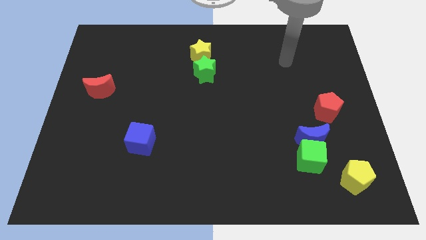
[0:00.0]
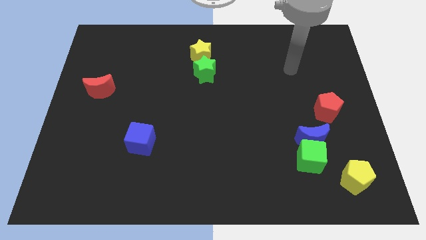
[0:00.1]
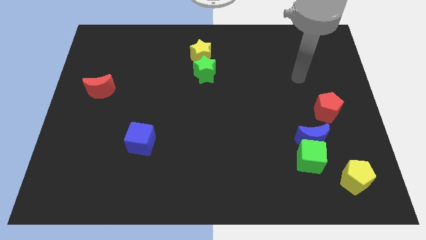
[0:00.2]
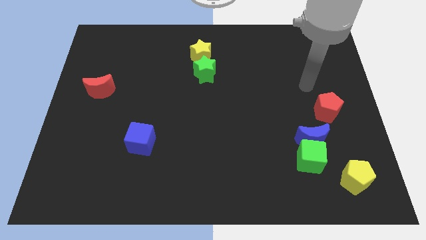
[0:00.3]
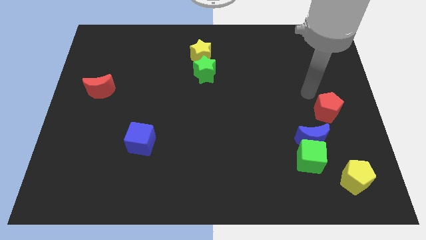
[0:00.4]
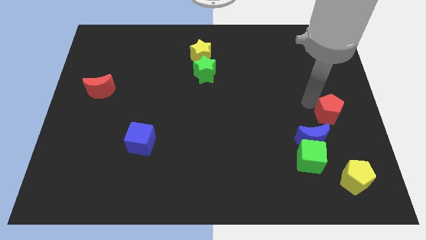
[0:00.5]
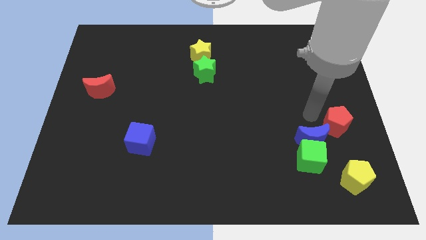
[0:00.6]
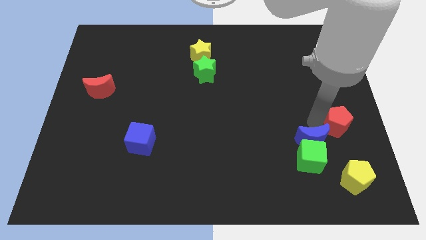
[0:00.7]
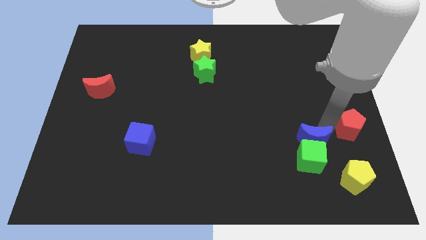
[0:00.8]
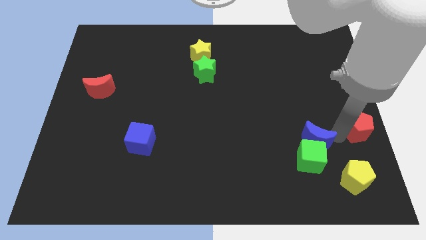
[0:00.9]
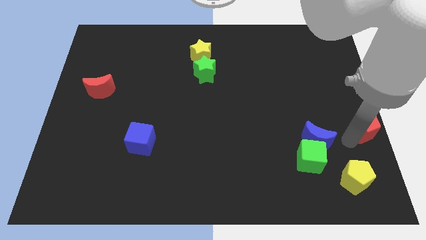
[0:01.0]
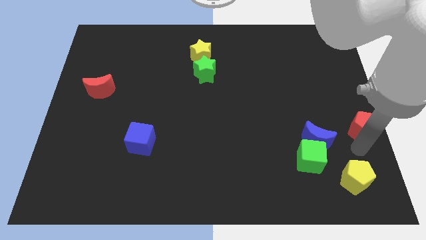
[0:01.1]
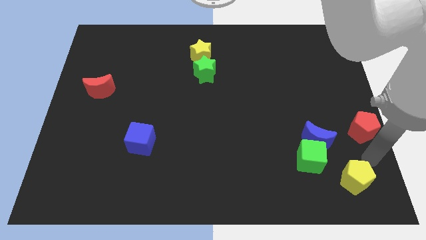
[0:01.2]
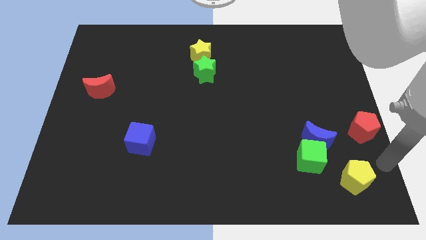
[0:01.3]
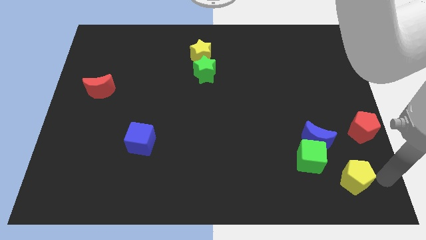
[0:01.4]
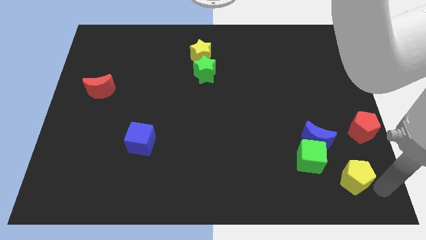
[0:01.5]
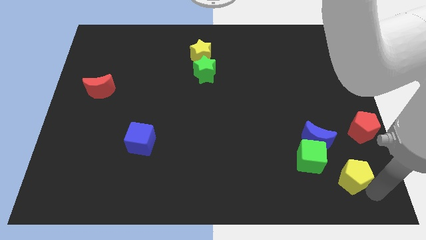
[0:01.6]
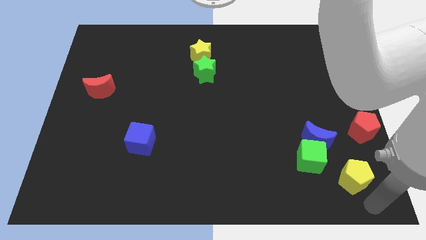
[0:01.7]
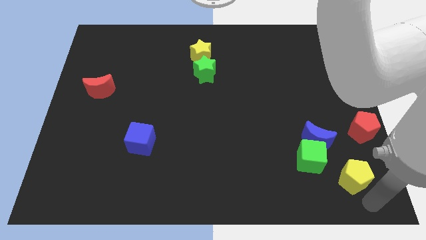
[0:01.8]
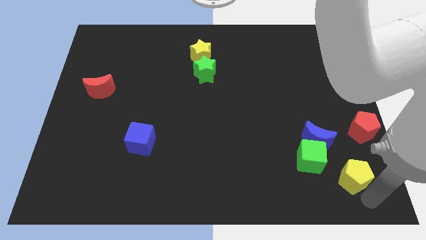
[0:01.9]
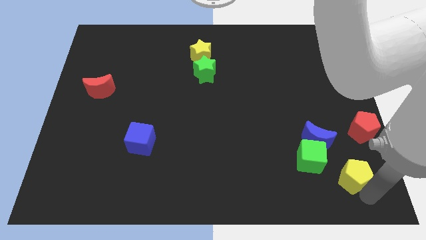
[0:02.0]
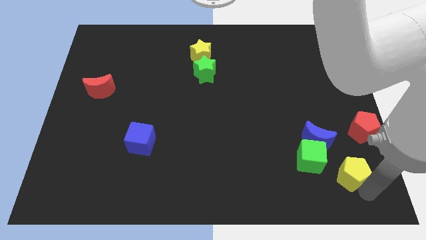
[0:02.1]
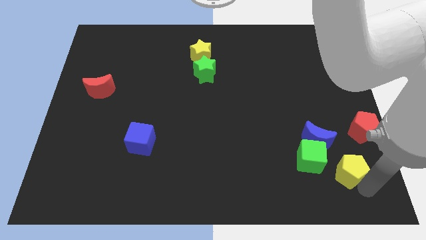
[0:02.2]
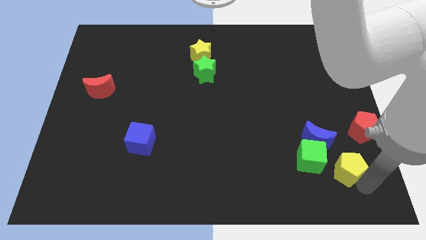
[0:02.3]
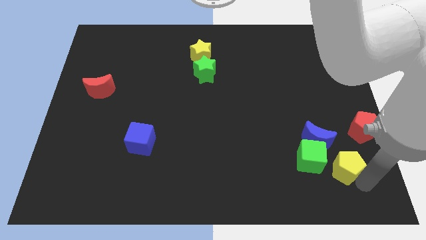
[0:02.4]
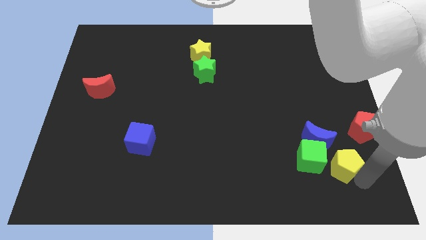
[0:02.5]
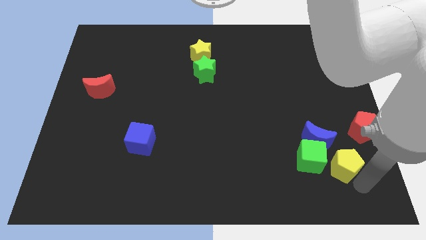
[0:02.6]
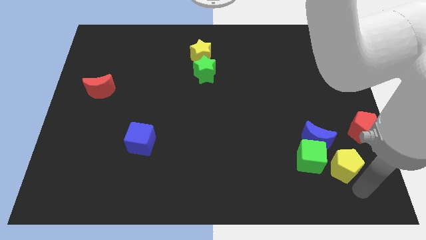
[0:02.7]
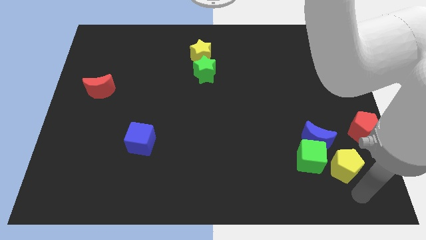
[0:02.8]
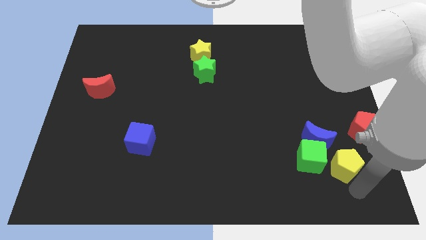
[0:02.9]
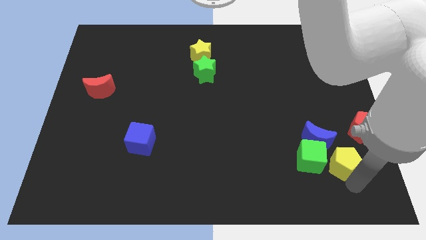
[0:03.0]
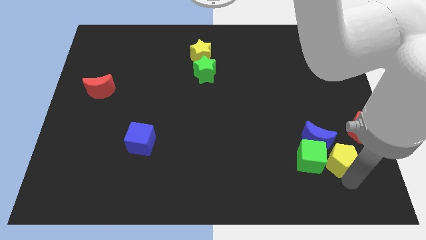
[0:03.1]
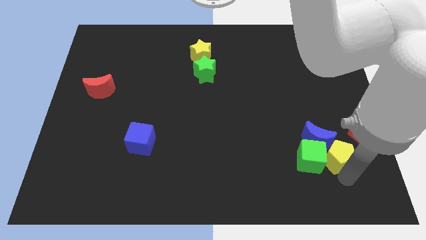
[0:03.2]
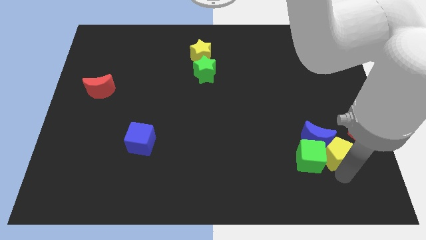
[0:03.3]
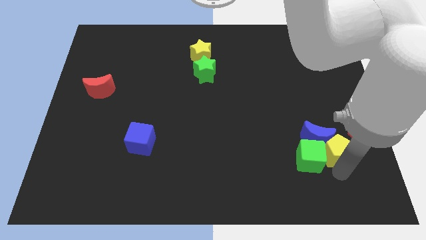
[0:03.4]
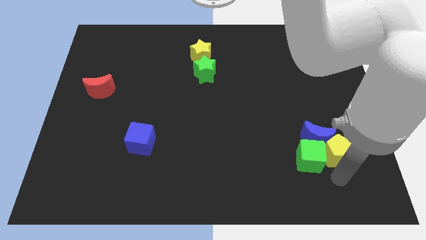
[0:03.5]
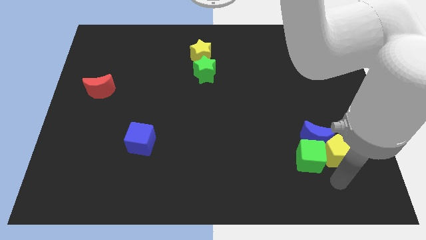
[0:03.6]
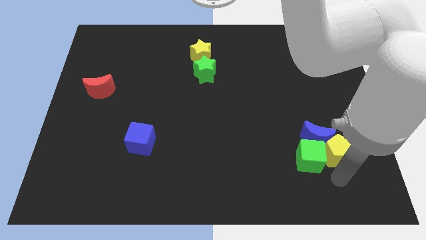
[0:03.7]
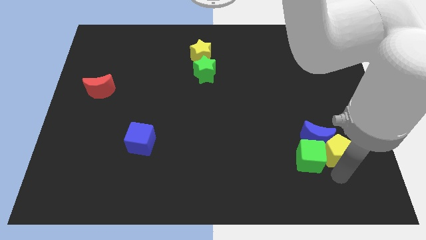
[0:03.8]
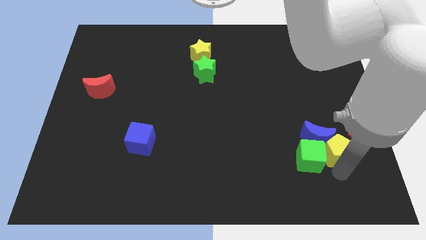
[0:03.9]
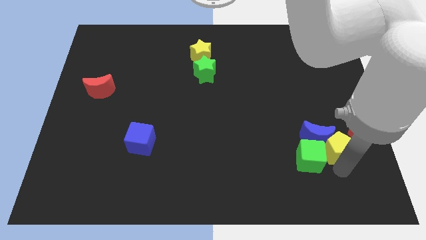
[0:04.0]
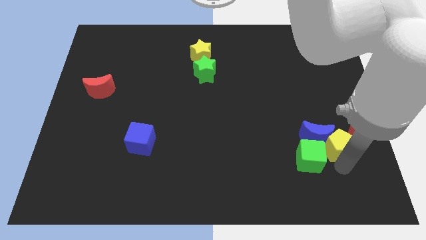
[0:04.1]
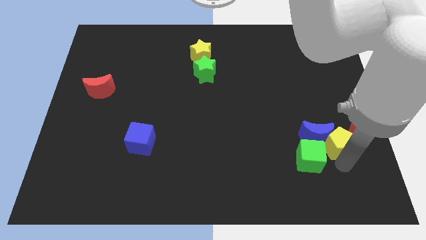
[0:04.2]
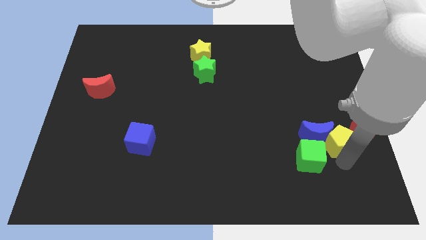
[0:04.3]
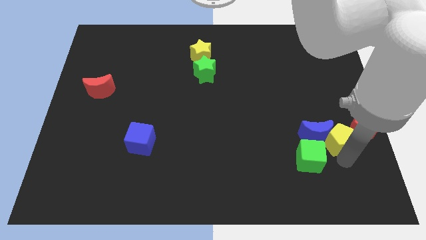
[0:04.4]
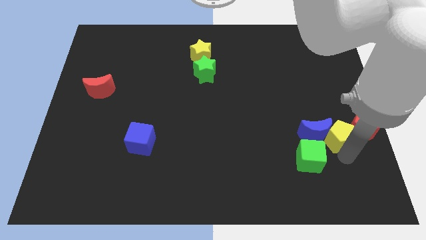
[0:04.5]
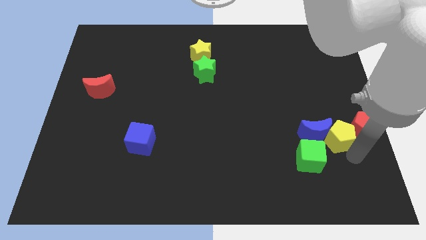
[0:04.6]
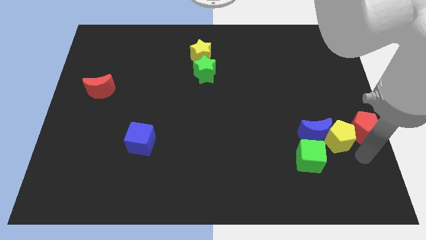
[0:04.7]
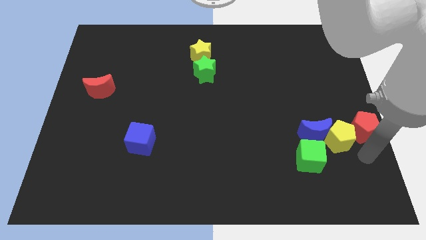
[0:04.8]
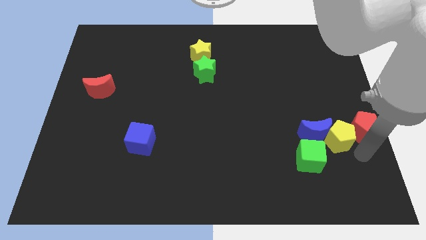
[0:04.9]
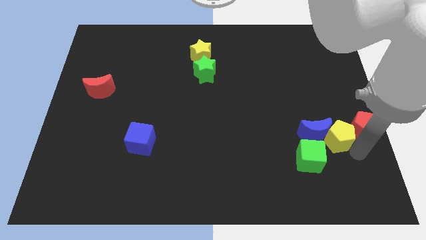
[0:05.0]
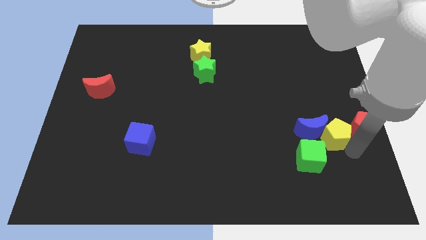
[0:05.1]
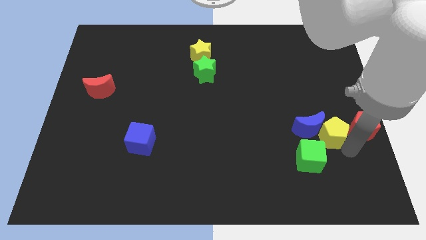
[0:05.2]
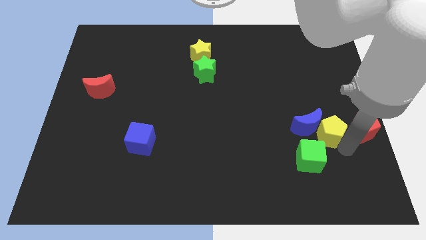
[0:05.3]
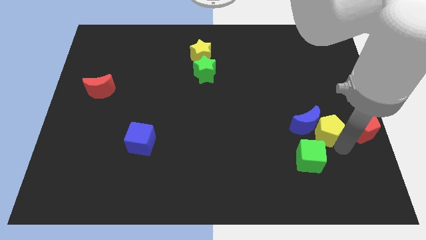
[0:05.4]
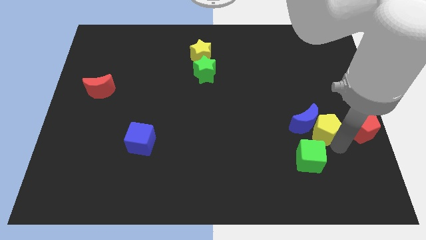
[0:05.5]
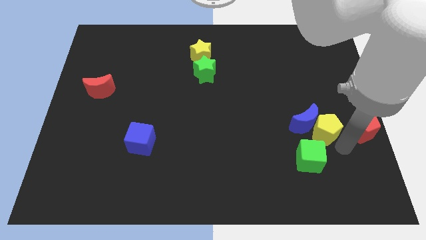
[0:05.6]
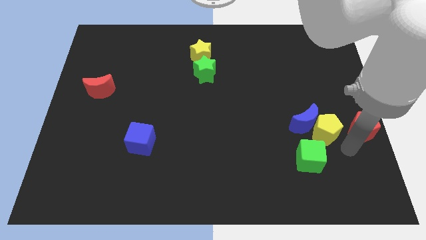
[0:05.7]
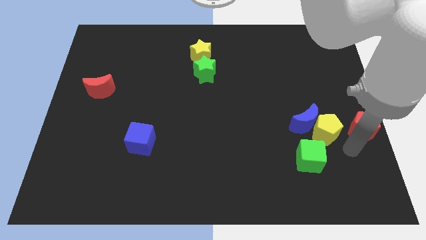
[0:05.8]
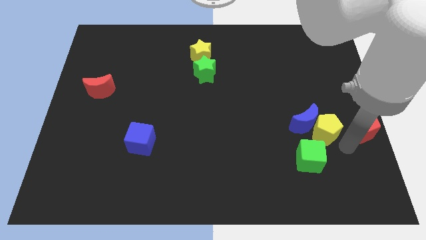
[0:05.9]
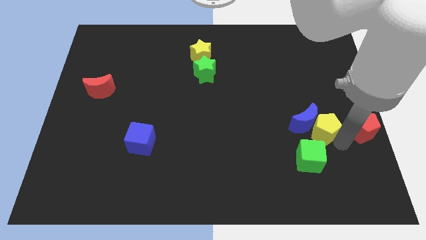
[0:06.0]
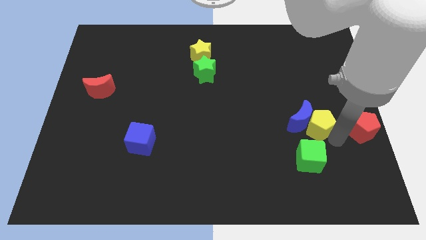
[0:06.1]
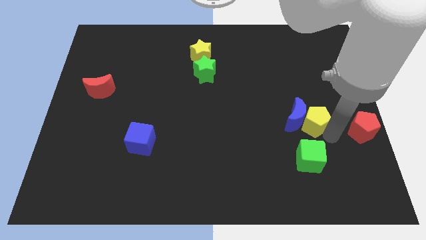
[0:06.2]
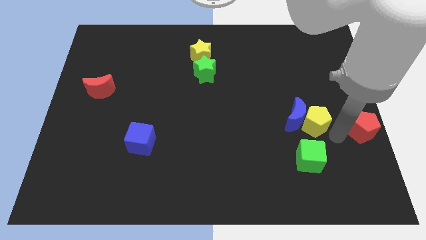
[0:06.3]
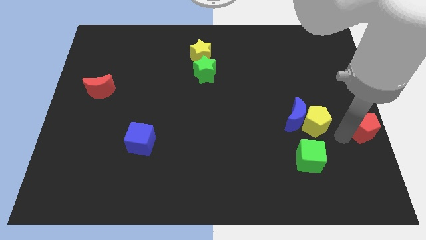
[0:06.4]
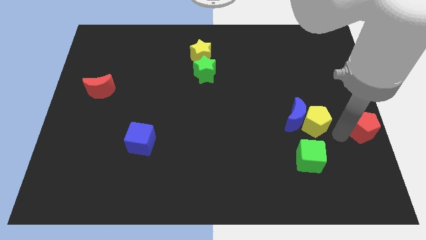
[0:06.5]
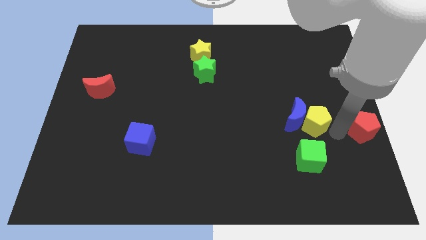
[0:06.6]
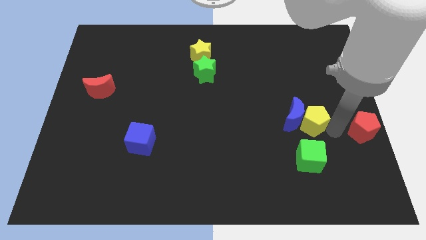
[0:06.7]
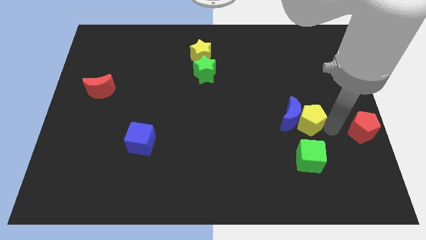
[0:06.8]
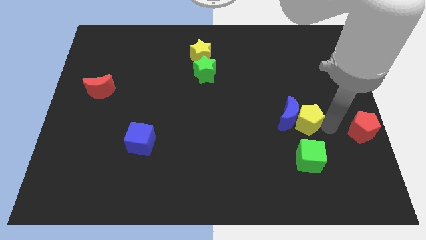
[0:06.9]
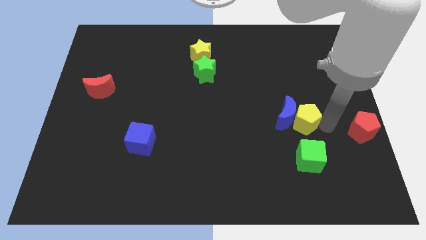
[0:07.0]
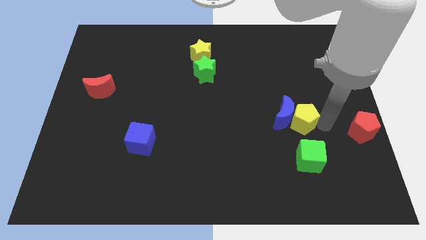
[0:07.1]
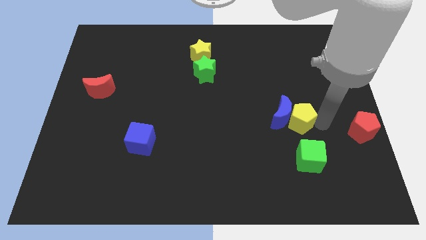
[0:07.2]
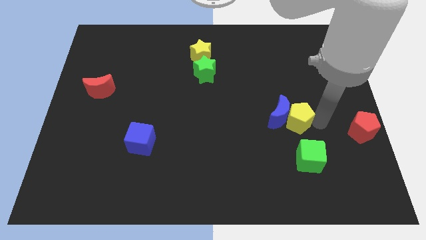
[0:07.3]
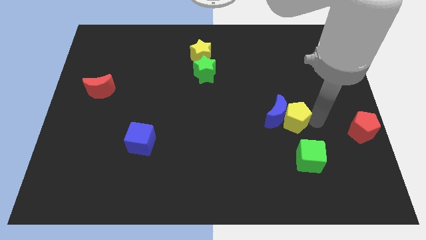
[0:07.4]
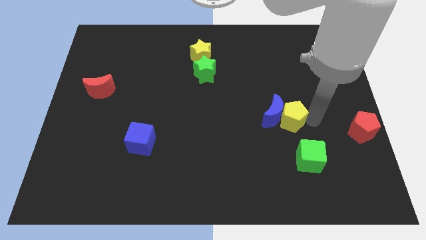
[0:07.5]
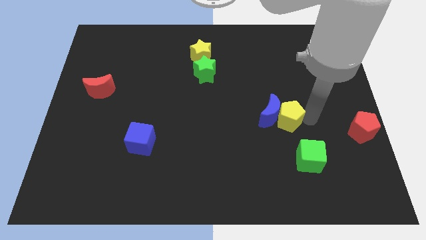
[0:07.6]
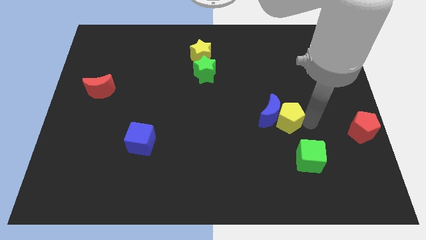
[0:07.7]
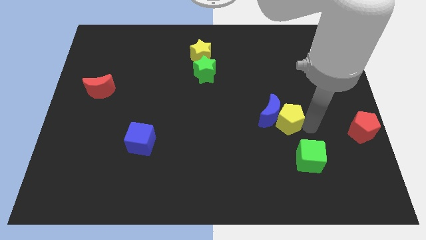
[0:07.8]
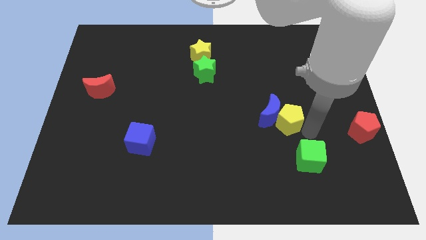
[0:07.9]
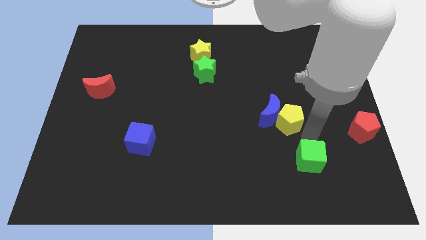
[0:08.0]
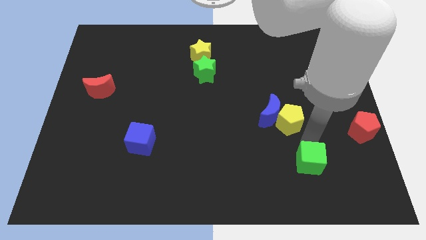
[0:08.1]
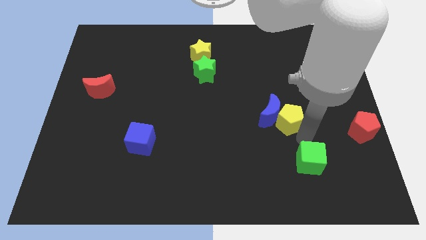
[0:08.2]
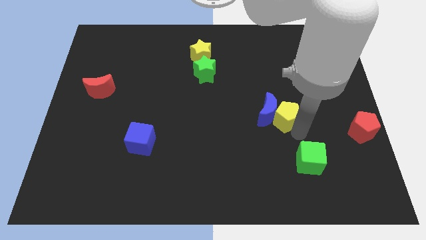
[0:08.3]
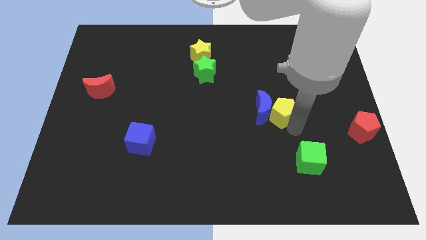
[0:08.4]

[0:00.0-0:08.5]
slide the yellow pentagon diagonally up and left
